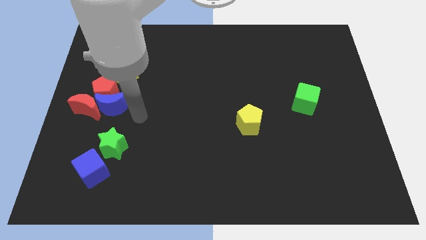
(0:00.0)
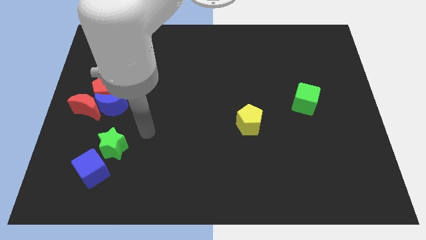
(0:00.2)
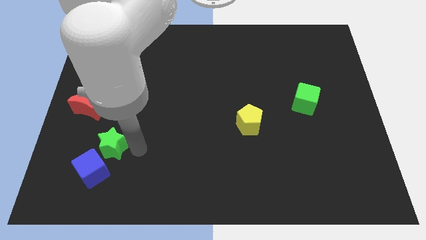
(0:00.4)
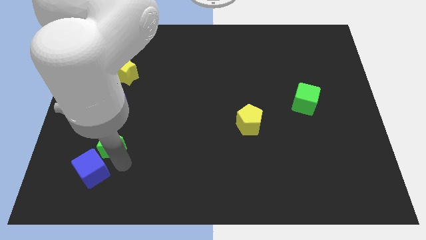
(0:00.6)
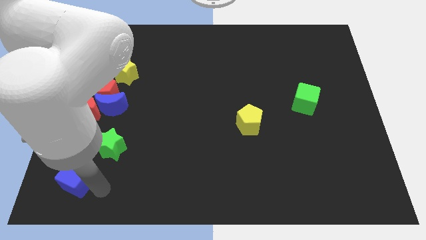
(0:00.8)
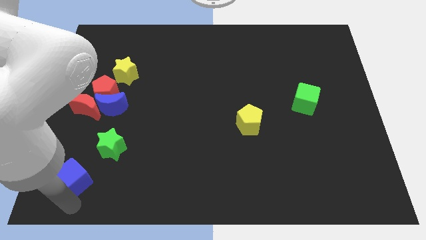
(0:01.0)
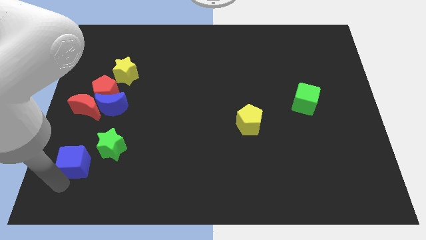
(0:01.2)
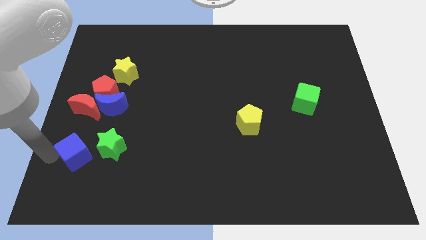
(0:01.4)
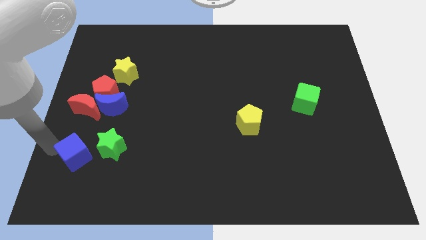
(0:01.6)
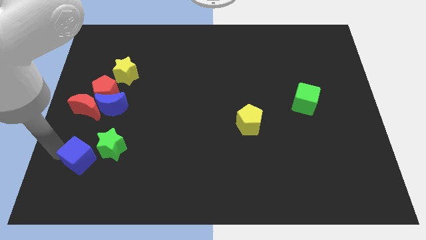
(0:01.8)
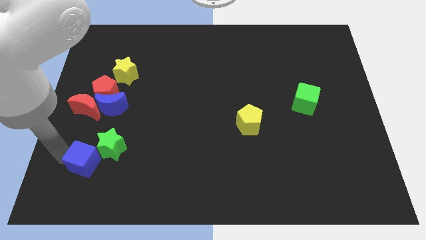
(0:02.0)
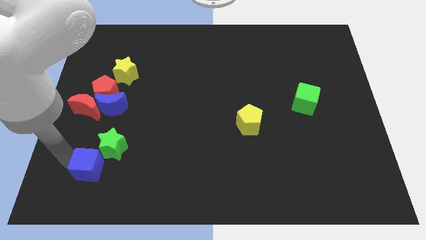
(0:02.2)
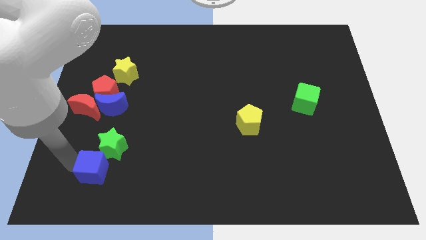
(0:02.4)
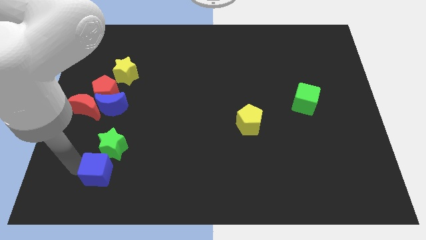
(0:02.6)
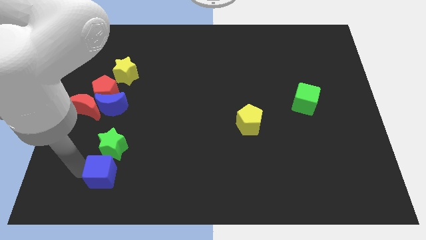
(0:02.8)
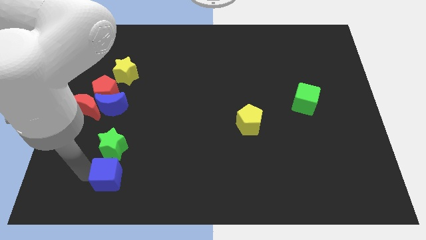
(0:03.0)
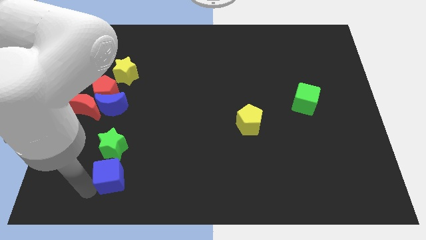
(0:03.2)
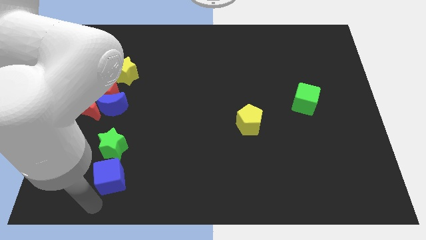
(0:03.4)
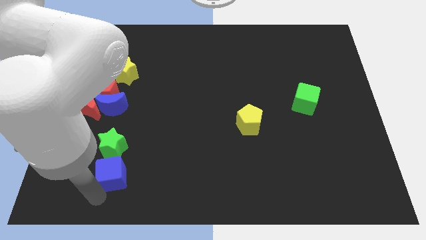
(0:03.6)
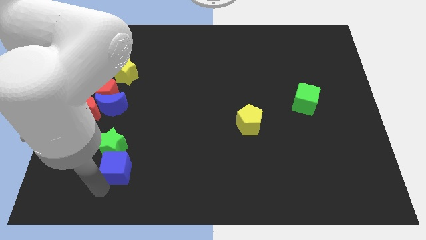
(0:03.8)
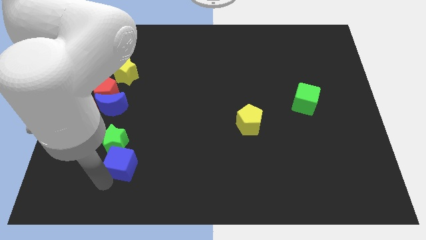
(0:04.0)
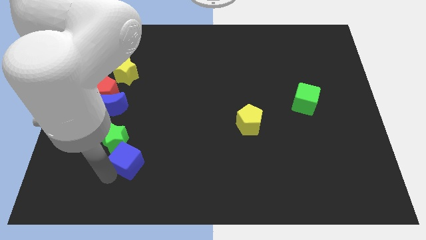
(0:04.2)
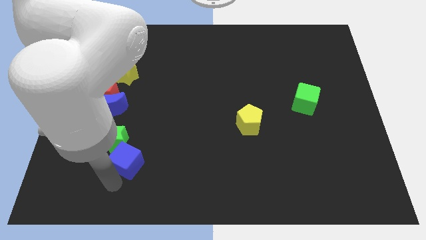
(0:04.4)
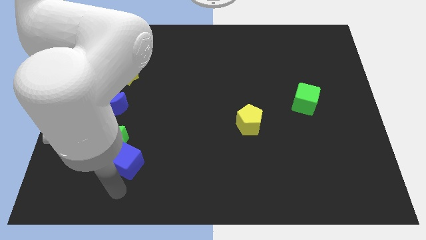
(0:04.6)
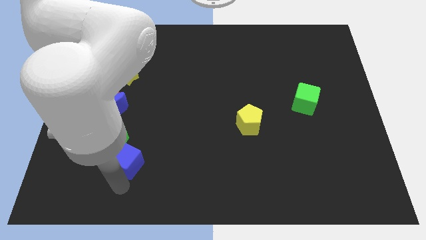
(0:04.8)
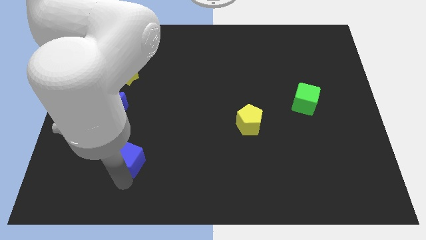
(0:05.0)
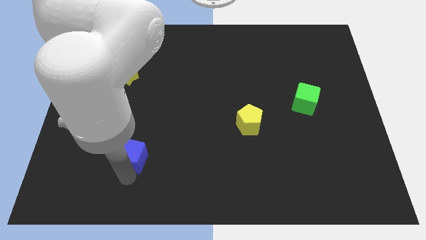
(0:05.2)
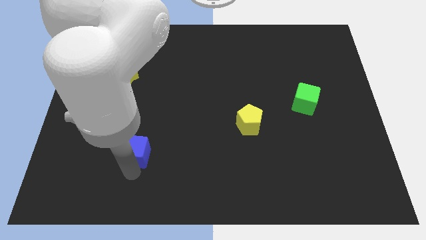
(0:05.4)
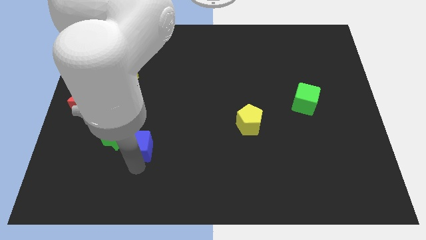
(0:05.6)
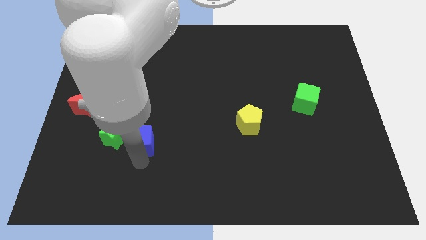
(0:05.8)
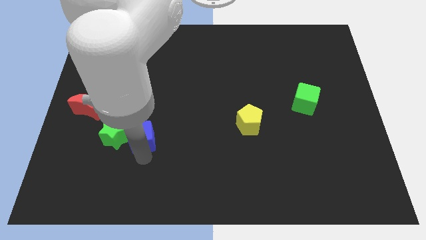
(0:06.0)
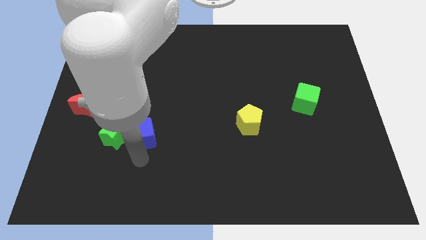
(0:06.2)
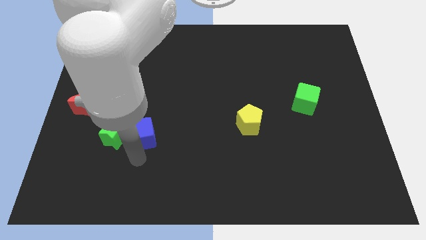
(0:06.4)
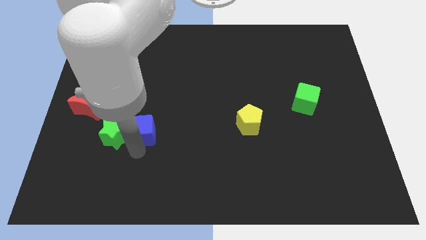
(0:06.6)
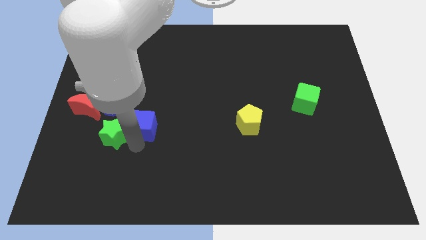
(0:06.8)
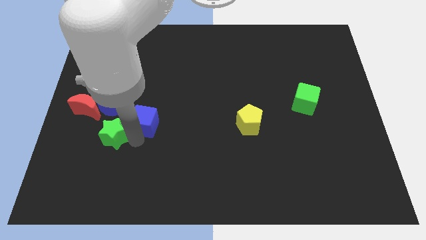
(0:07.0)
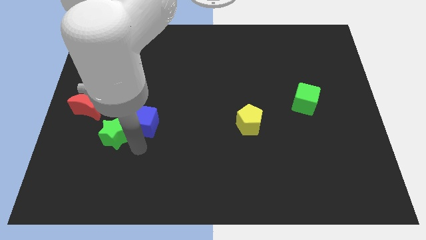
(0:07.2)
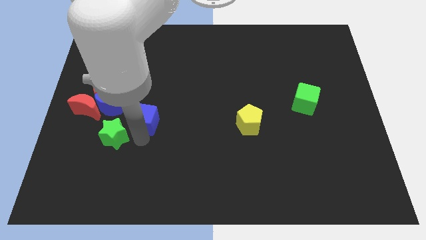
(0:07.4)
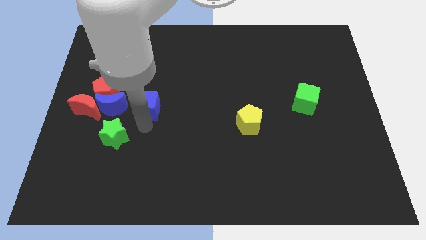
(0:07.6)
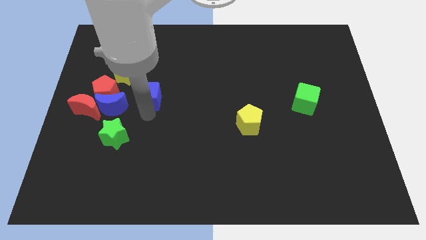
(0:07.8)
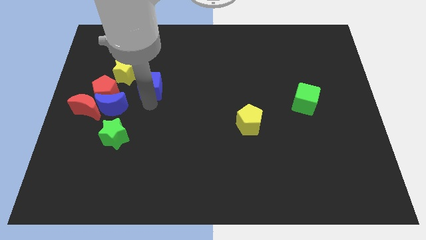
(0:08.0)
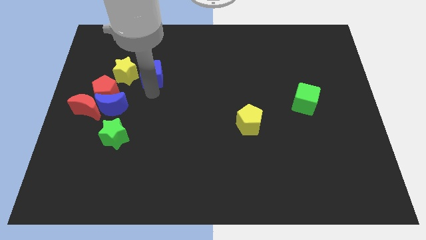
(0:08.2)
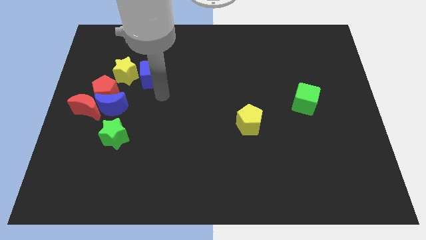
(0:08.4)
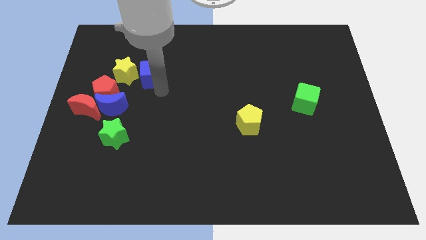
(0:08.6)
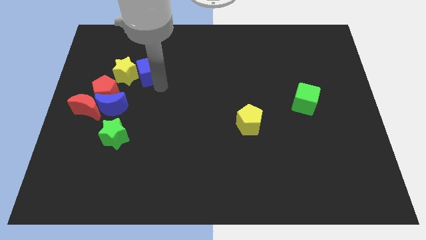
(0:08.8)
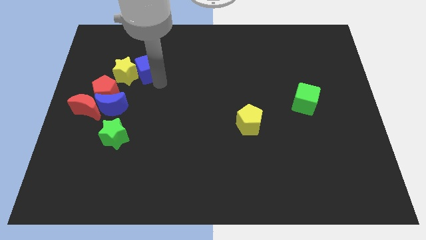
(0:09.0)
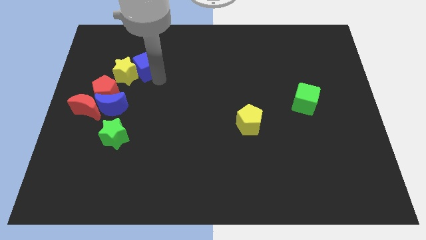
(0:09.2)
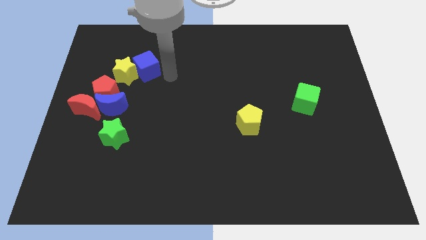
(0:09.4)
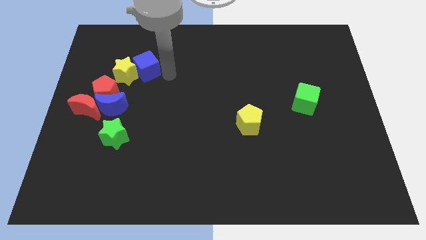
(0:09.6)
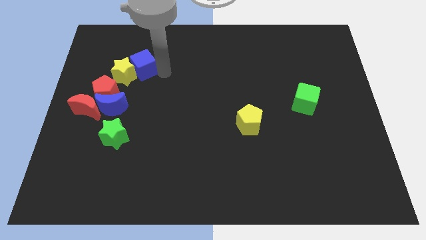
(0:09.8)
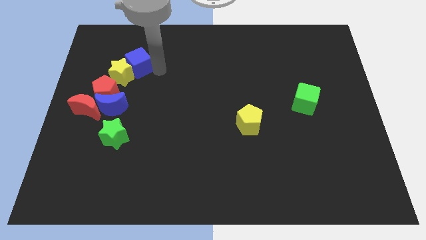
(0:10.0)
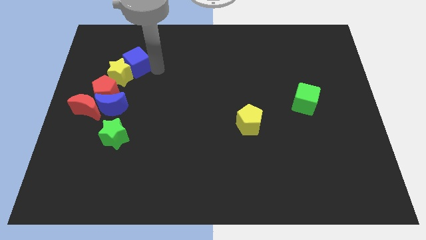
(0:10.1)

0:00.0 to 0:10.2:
slide the blue cube above the blue moon

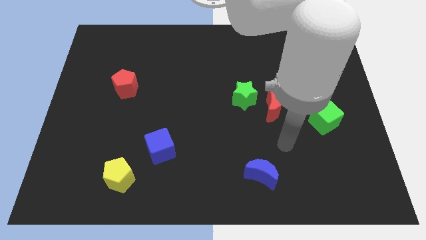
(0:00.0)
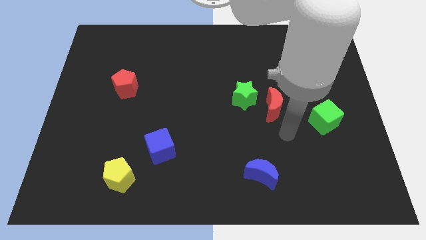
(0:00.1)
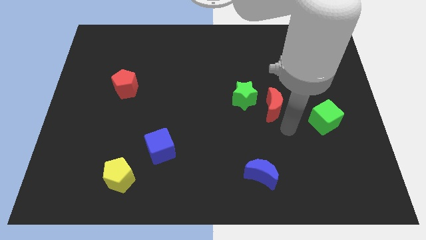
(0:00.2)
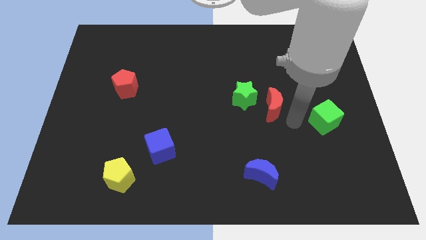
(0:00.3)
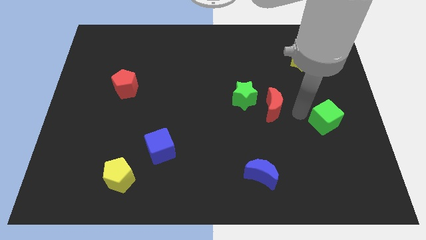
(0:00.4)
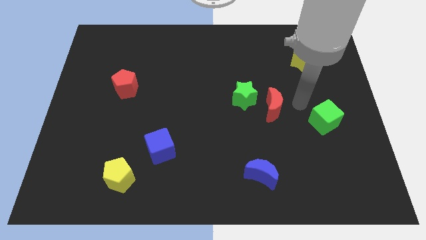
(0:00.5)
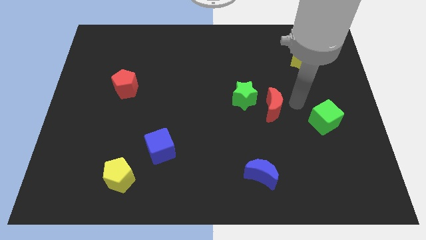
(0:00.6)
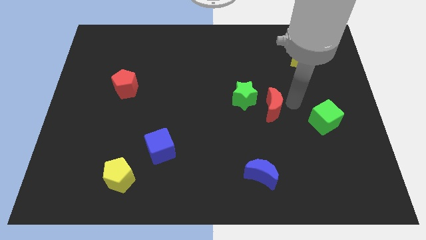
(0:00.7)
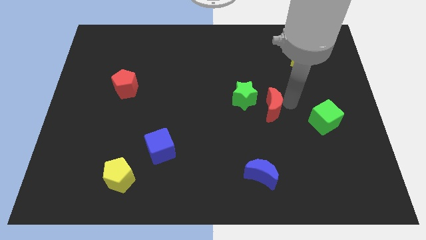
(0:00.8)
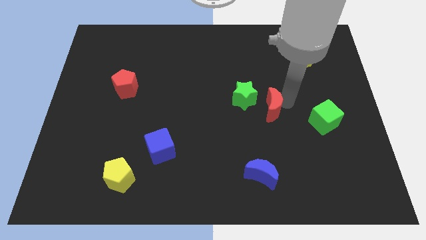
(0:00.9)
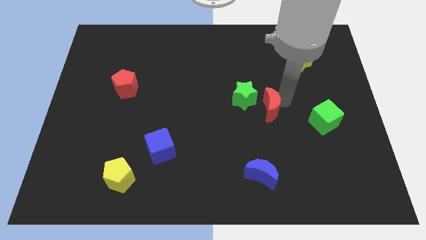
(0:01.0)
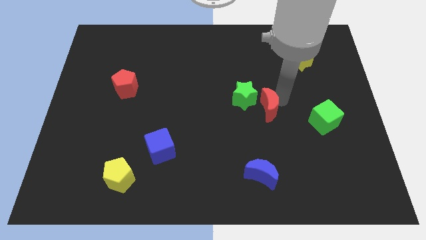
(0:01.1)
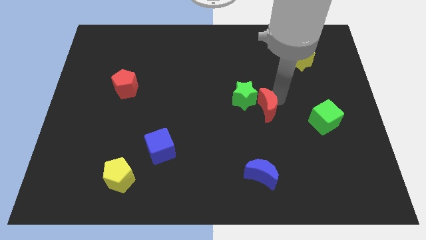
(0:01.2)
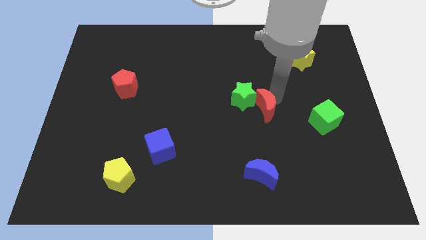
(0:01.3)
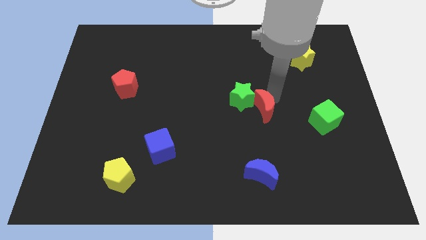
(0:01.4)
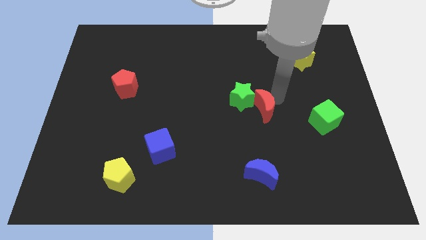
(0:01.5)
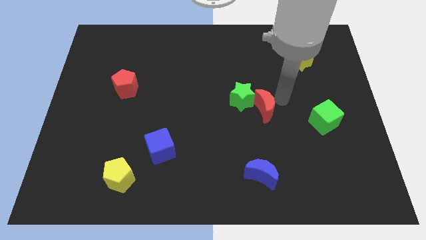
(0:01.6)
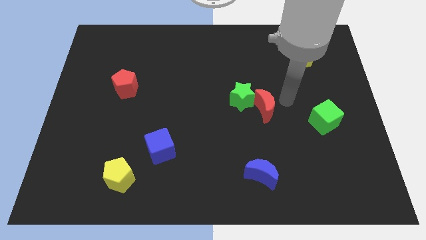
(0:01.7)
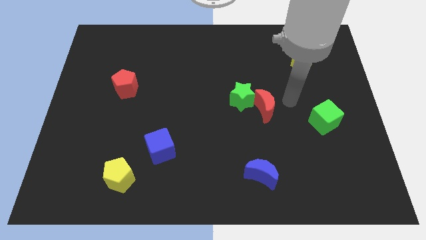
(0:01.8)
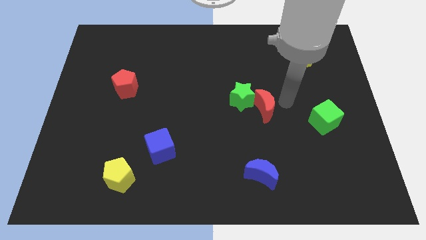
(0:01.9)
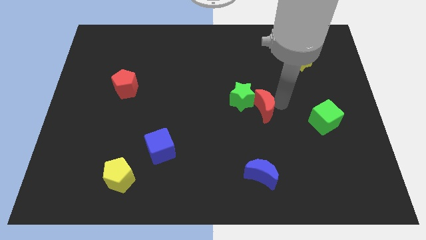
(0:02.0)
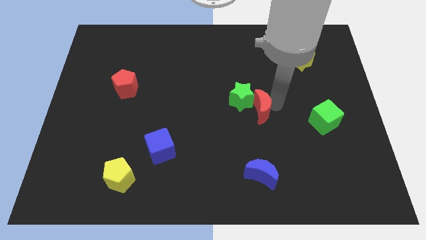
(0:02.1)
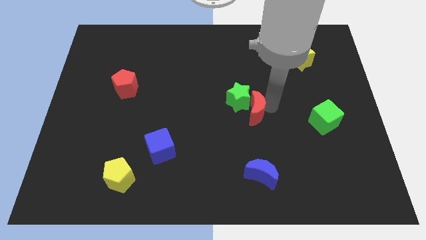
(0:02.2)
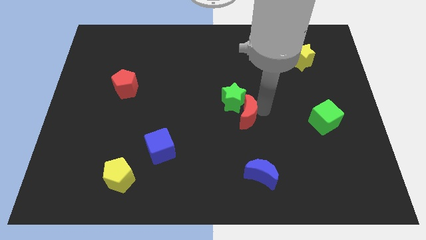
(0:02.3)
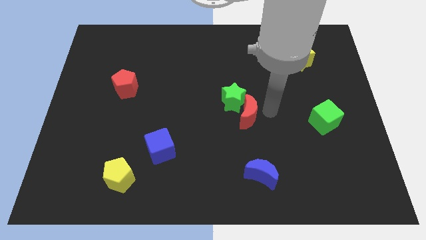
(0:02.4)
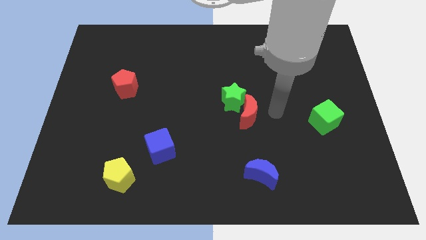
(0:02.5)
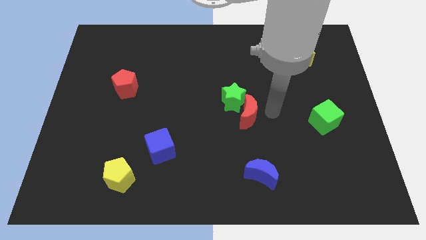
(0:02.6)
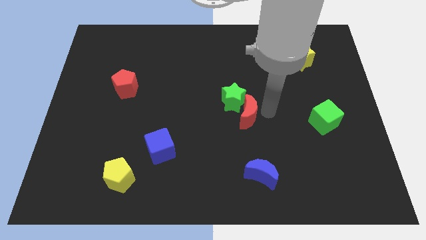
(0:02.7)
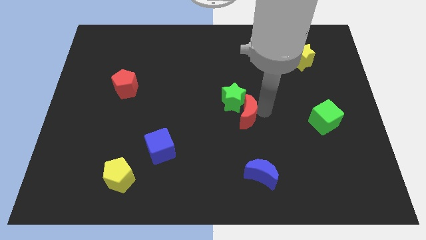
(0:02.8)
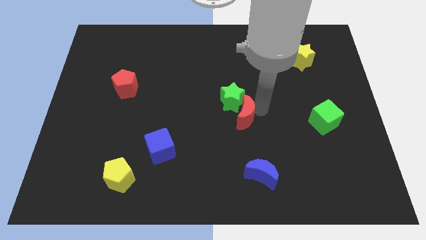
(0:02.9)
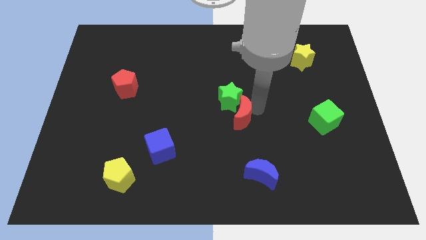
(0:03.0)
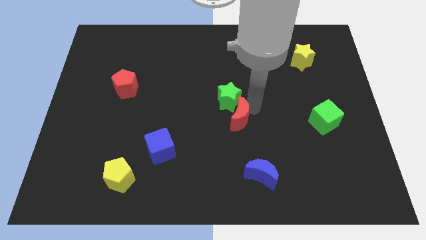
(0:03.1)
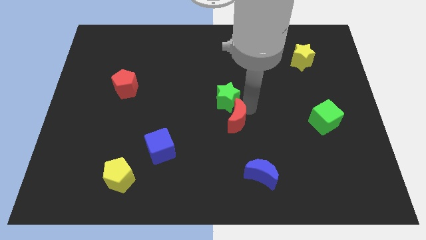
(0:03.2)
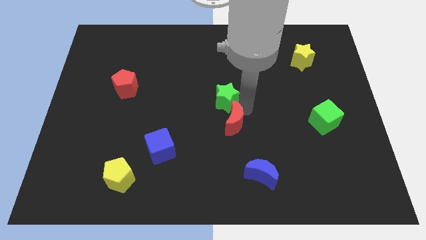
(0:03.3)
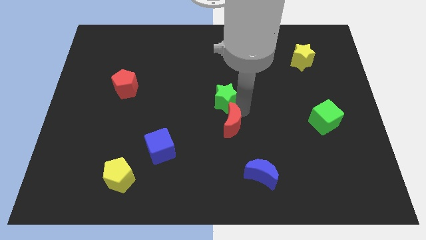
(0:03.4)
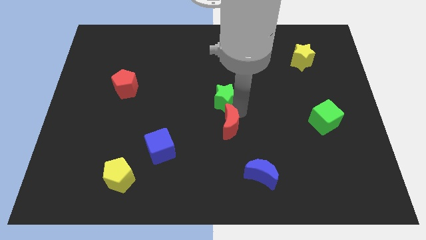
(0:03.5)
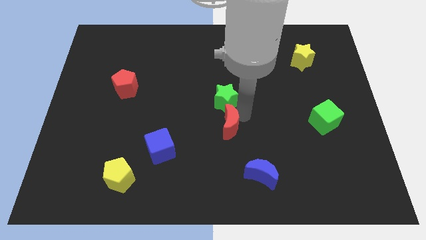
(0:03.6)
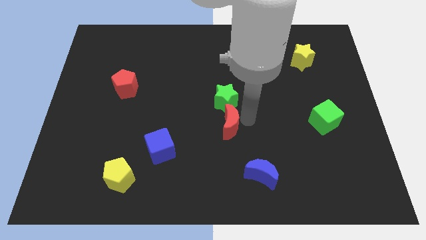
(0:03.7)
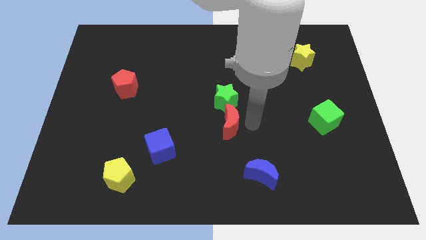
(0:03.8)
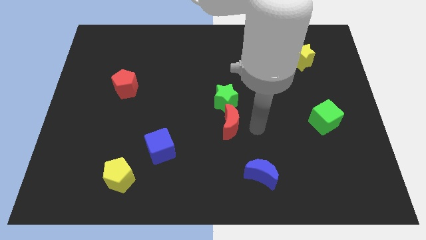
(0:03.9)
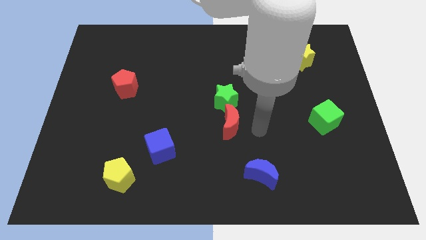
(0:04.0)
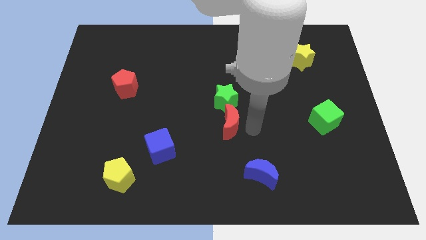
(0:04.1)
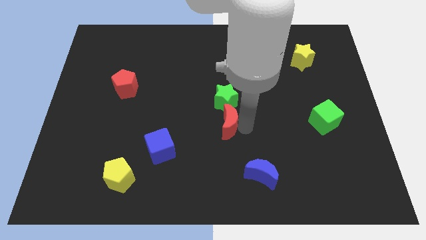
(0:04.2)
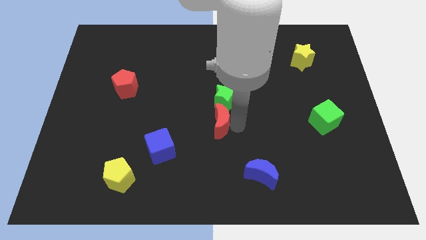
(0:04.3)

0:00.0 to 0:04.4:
move the red moon to the bottom left of the green star
